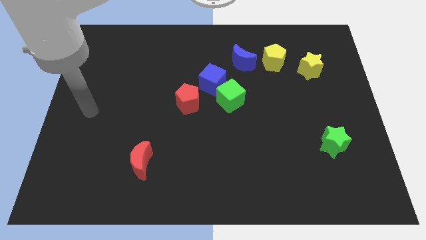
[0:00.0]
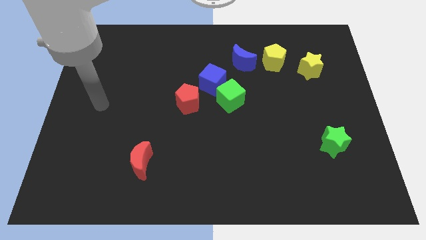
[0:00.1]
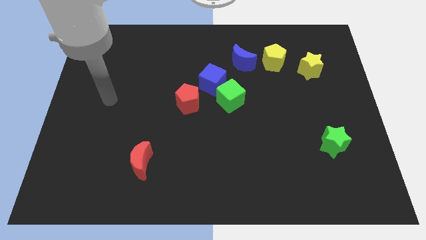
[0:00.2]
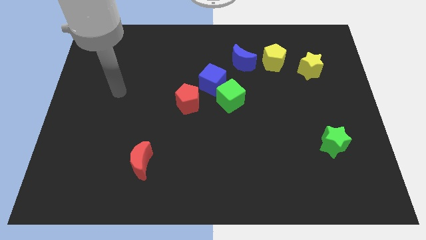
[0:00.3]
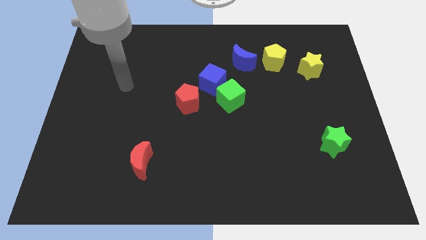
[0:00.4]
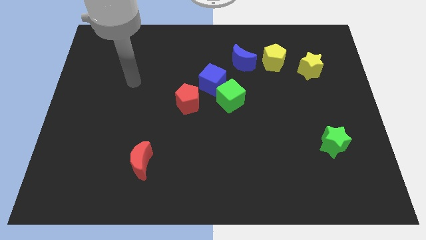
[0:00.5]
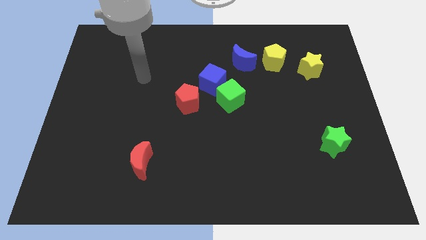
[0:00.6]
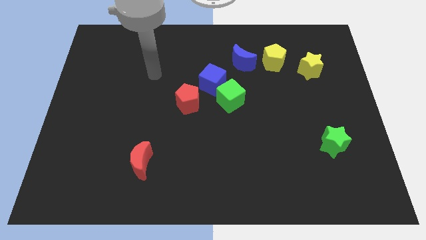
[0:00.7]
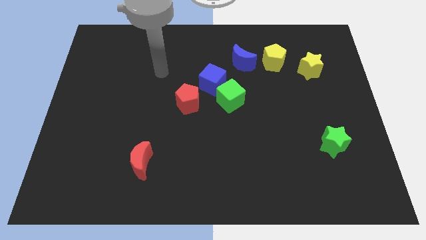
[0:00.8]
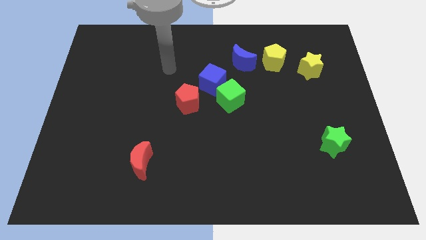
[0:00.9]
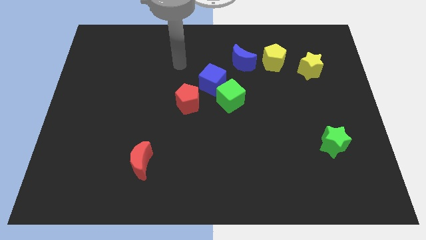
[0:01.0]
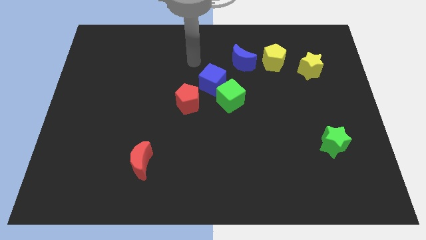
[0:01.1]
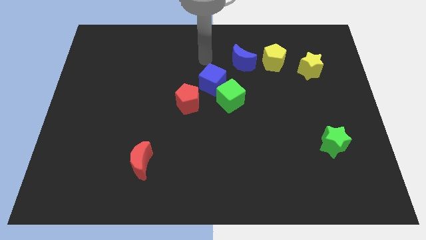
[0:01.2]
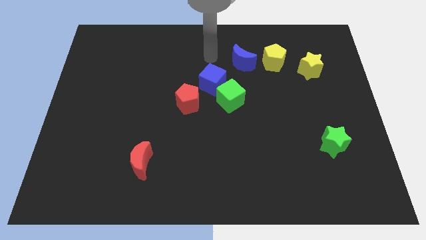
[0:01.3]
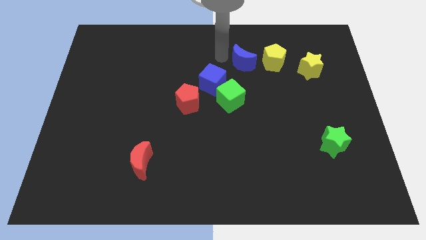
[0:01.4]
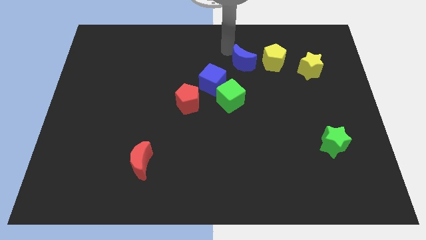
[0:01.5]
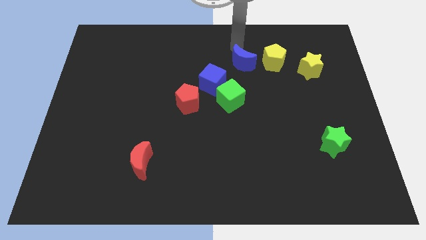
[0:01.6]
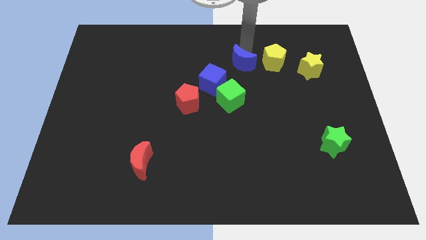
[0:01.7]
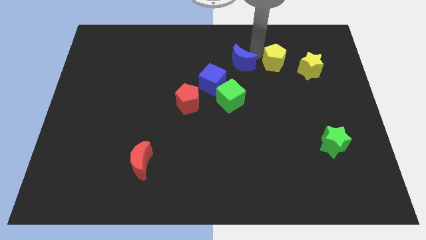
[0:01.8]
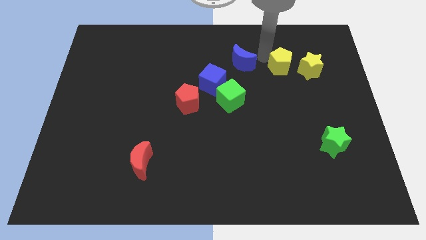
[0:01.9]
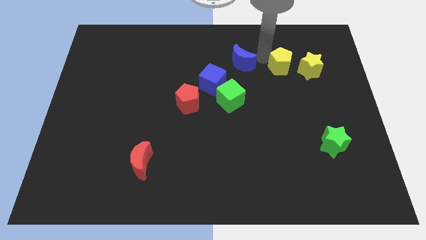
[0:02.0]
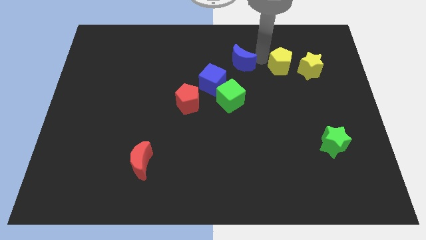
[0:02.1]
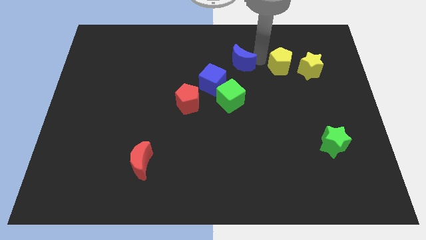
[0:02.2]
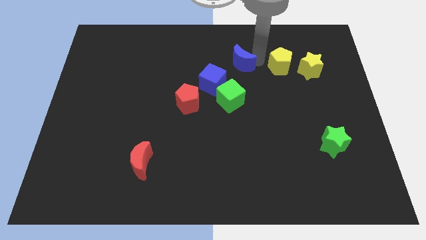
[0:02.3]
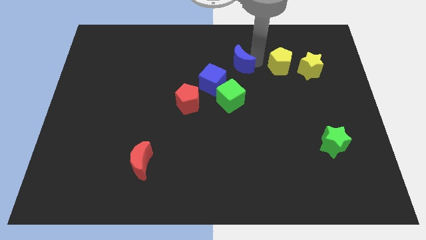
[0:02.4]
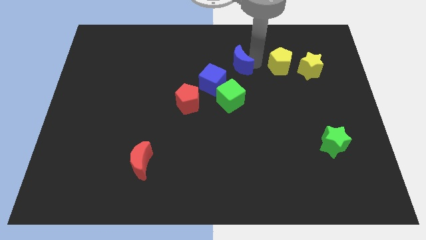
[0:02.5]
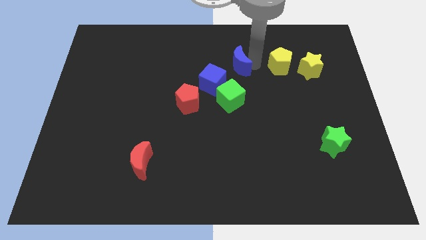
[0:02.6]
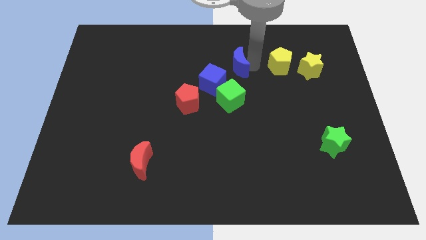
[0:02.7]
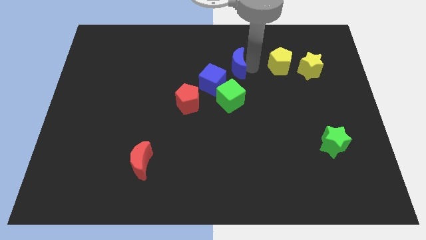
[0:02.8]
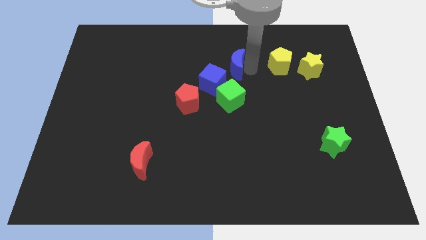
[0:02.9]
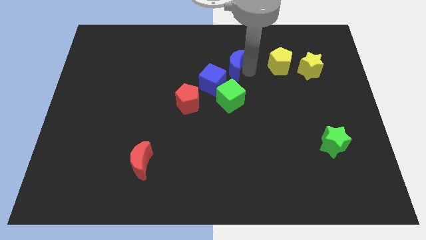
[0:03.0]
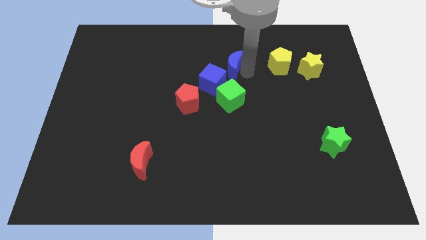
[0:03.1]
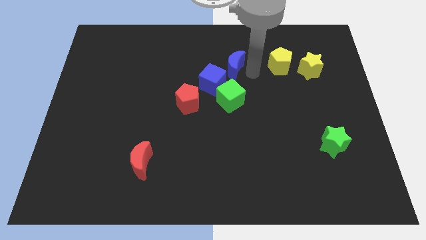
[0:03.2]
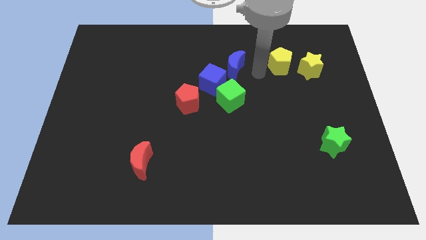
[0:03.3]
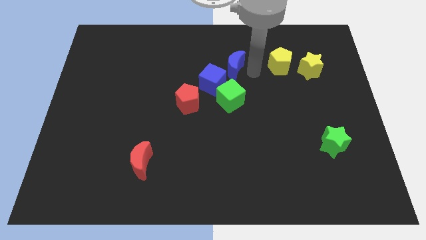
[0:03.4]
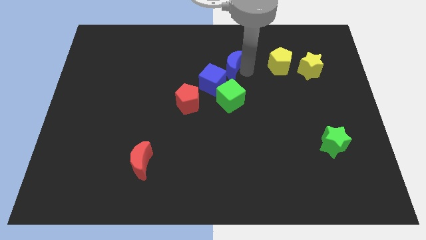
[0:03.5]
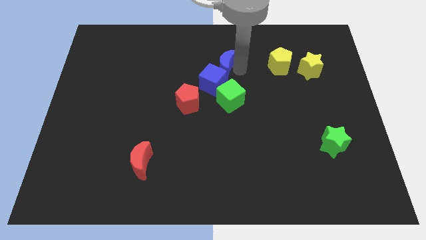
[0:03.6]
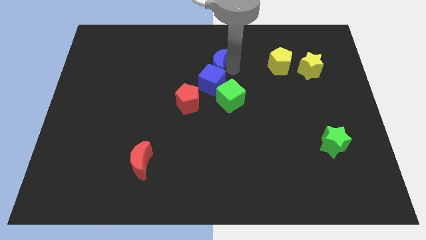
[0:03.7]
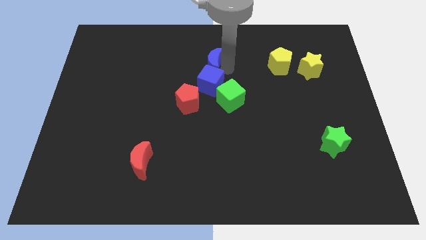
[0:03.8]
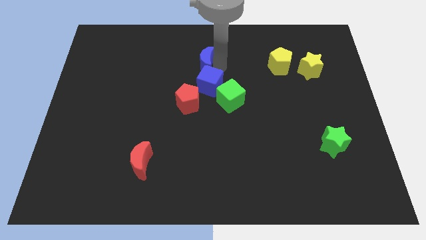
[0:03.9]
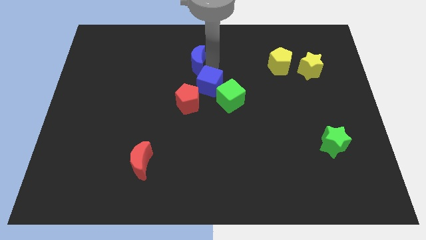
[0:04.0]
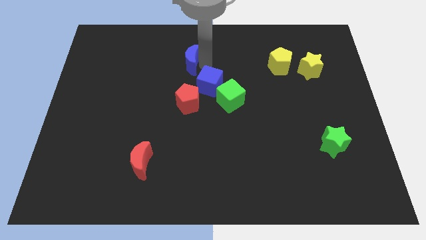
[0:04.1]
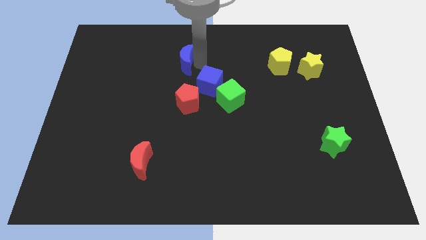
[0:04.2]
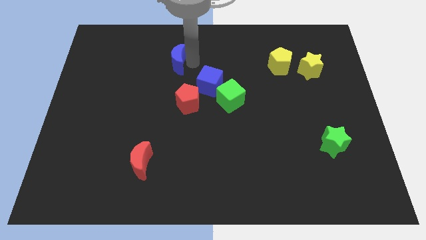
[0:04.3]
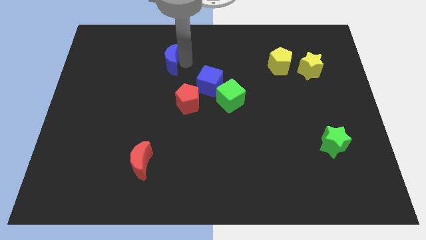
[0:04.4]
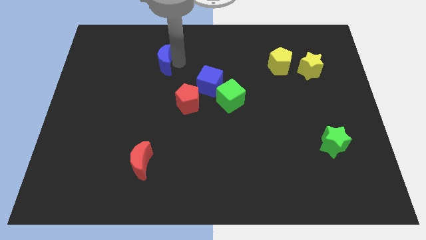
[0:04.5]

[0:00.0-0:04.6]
move the blue moon to the left

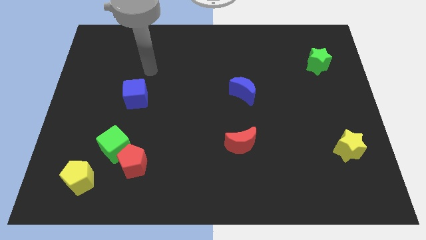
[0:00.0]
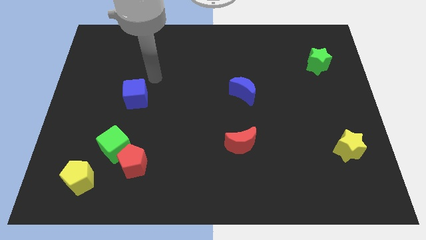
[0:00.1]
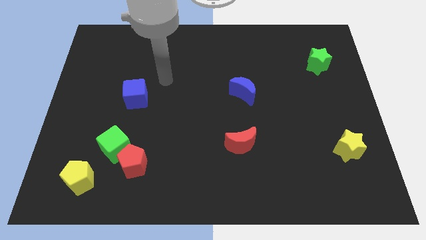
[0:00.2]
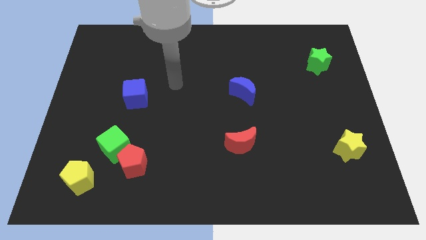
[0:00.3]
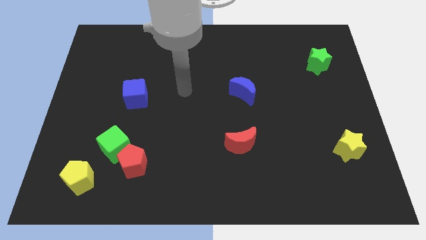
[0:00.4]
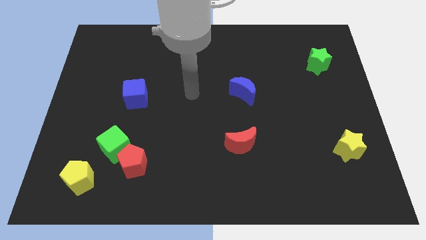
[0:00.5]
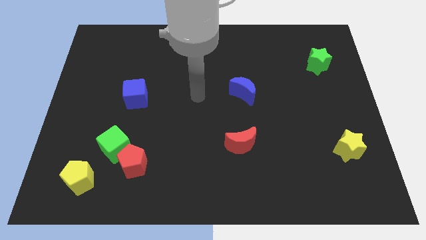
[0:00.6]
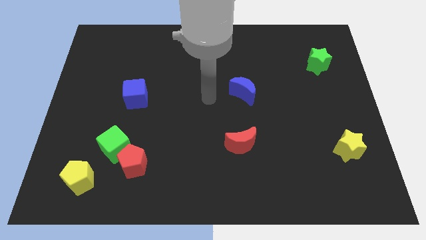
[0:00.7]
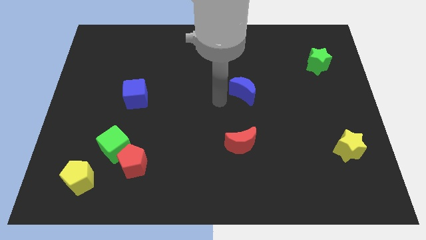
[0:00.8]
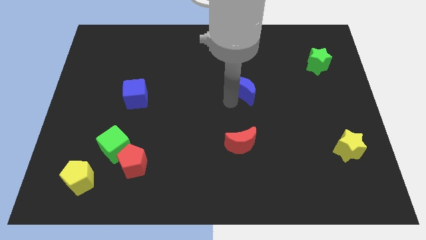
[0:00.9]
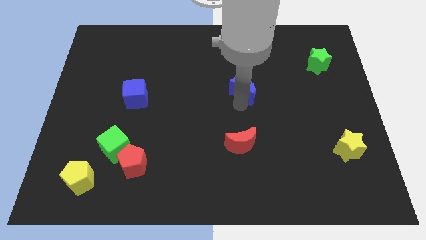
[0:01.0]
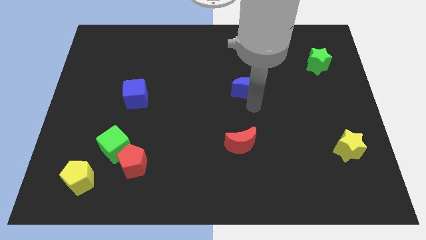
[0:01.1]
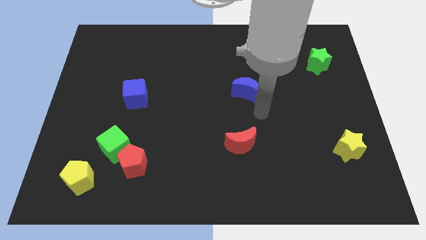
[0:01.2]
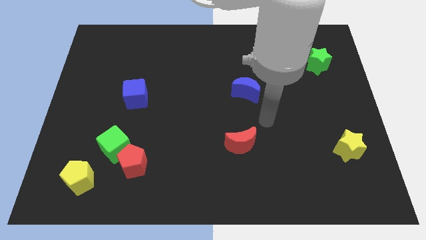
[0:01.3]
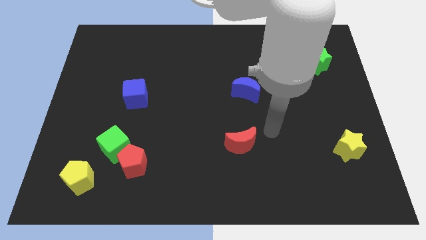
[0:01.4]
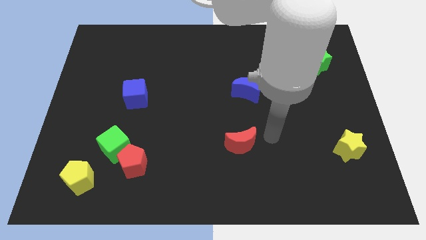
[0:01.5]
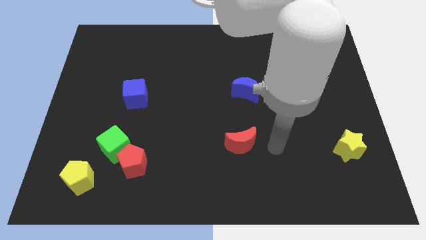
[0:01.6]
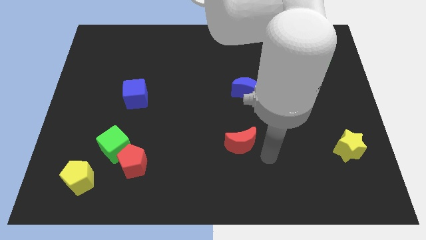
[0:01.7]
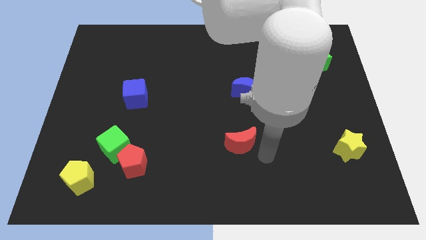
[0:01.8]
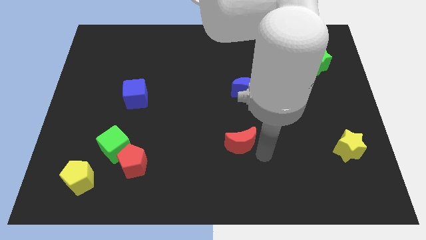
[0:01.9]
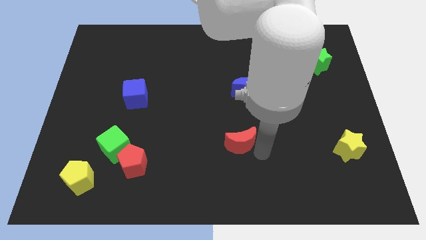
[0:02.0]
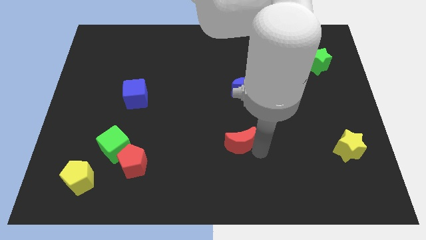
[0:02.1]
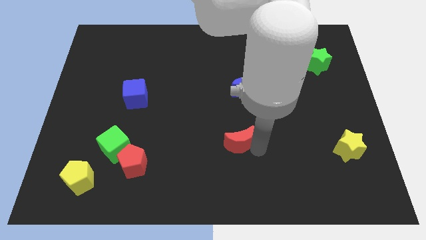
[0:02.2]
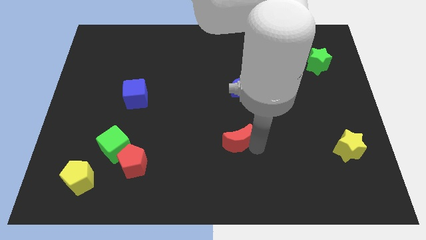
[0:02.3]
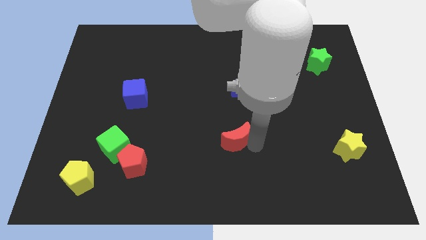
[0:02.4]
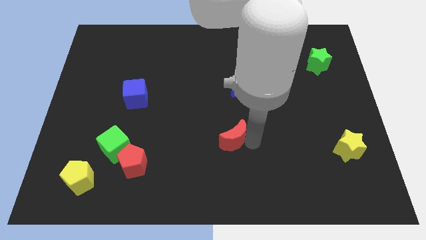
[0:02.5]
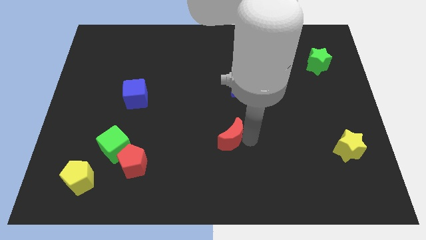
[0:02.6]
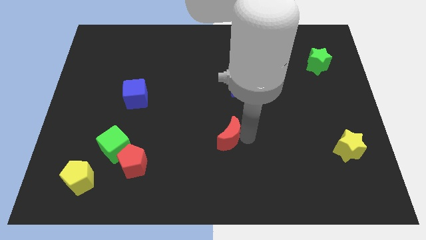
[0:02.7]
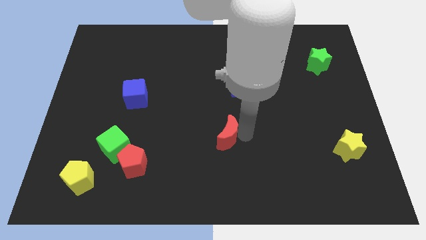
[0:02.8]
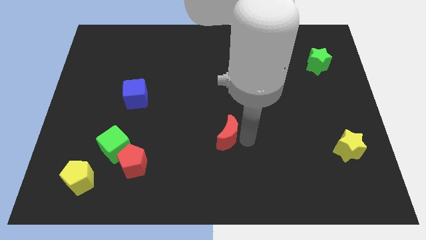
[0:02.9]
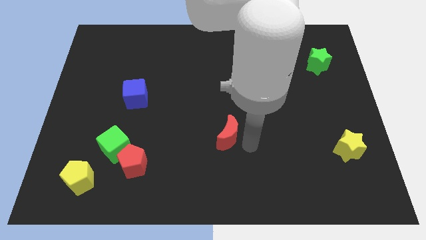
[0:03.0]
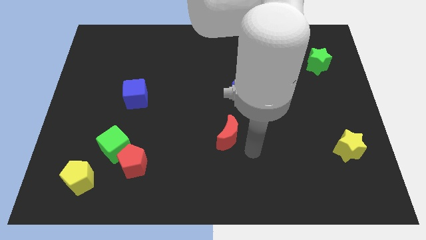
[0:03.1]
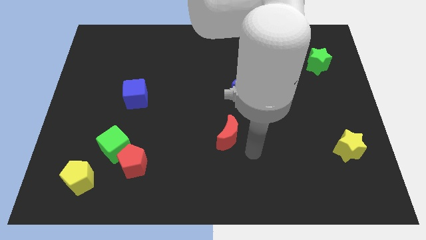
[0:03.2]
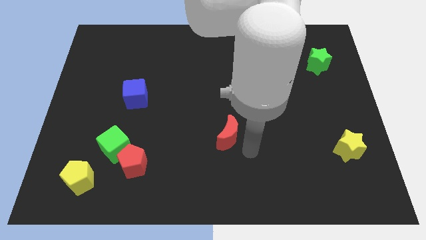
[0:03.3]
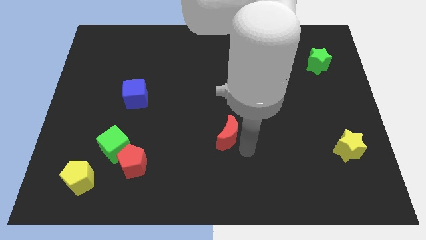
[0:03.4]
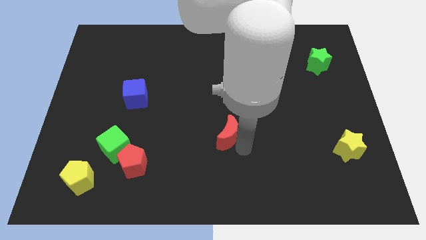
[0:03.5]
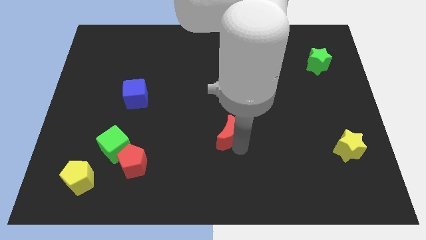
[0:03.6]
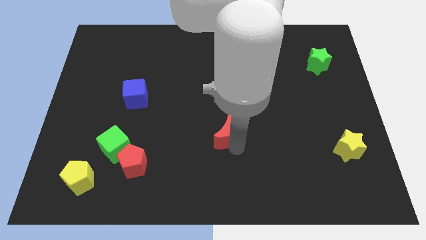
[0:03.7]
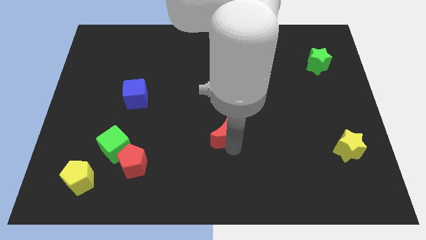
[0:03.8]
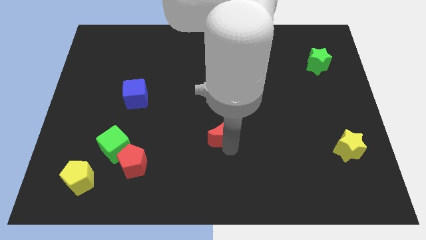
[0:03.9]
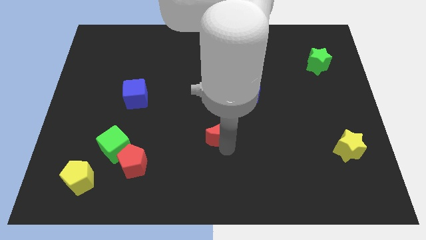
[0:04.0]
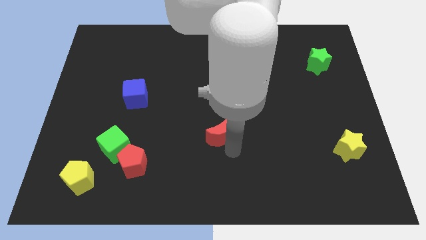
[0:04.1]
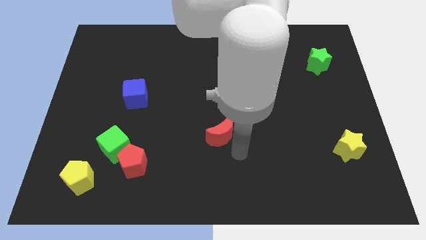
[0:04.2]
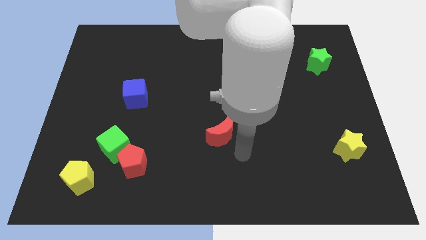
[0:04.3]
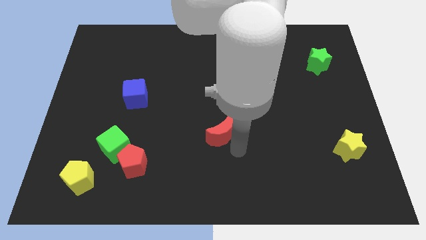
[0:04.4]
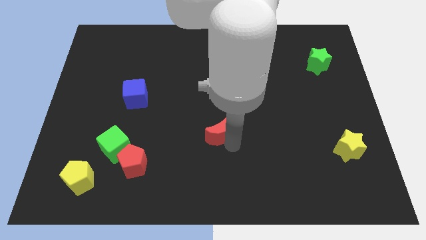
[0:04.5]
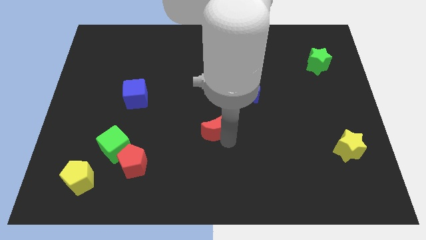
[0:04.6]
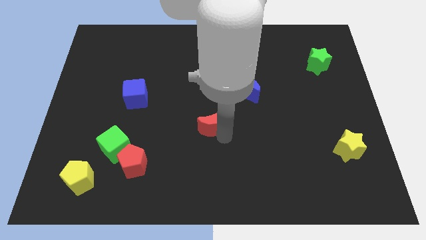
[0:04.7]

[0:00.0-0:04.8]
slightly push the red moon upwards and then to the left
